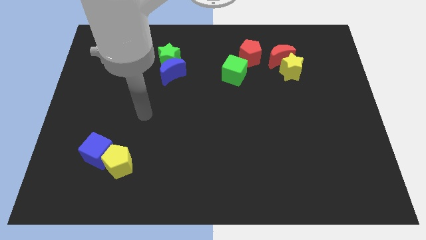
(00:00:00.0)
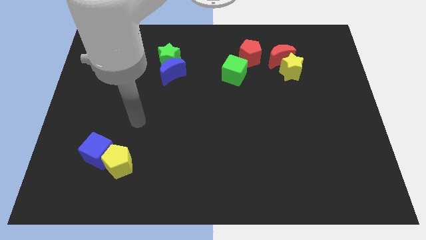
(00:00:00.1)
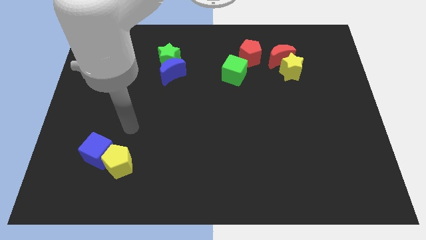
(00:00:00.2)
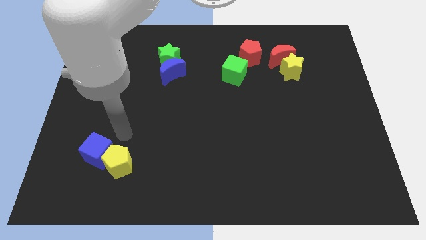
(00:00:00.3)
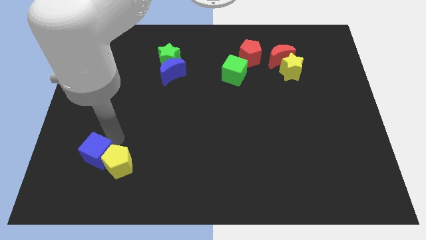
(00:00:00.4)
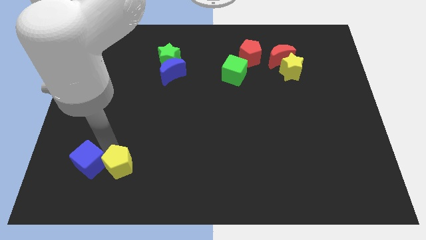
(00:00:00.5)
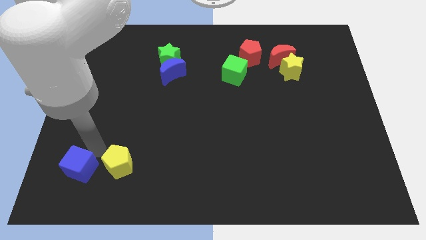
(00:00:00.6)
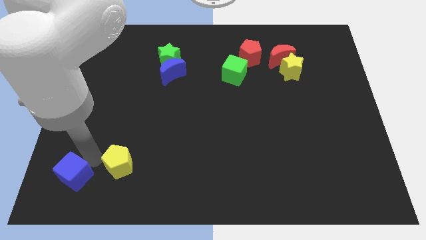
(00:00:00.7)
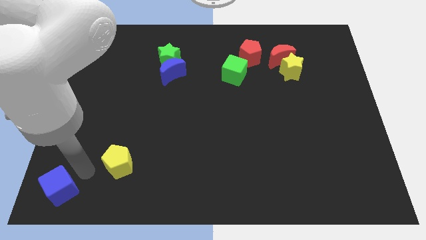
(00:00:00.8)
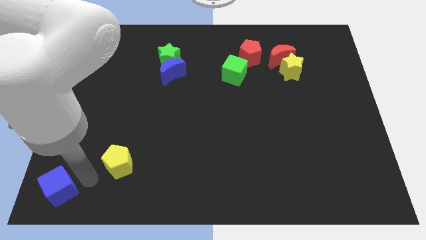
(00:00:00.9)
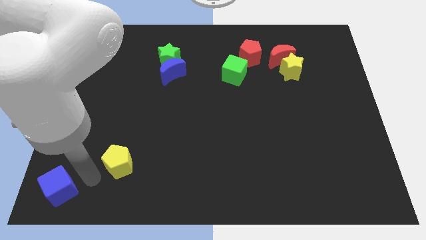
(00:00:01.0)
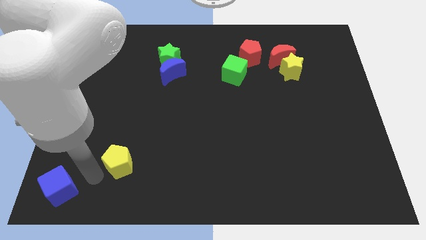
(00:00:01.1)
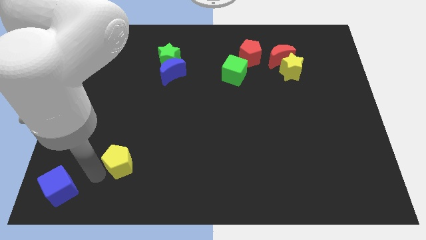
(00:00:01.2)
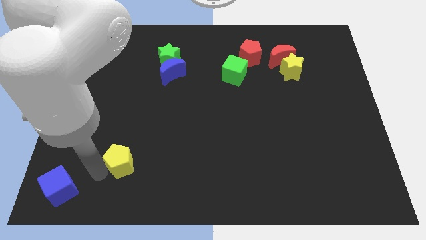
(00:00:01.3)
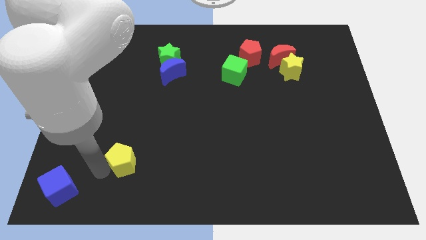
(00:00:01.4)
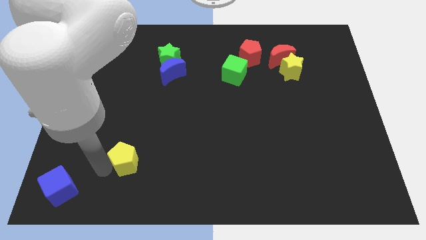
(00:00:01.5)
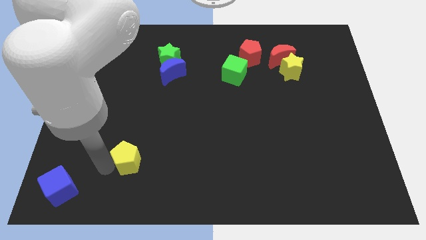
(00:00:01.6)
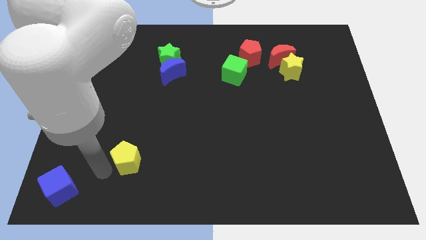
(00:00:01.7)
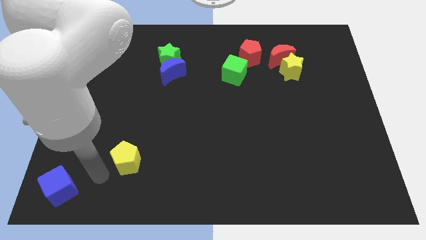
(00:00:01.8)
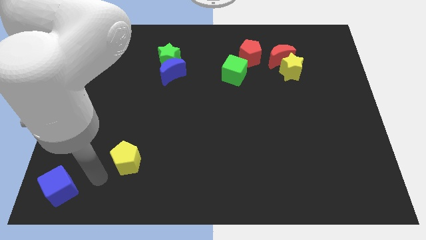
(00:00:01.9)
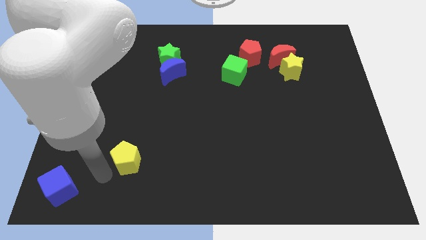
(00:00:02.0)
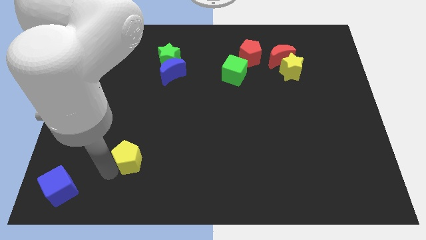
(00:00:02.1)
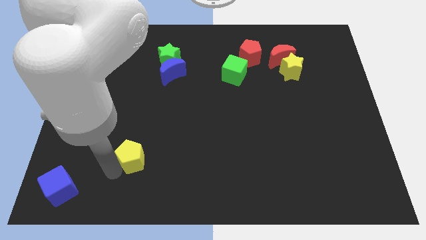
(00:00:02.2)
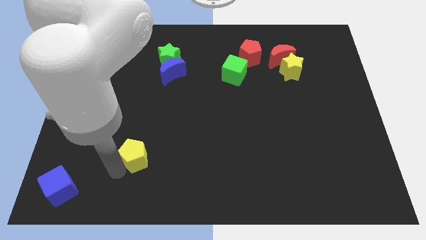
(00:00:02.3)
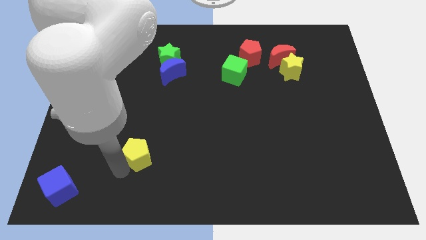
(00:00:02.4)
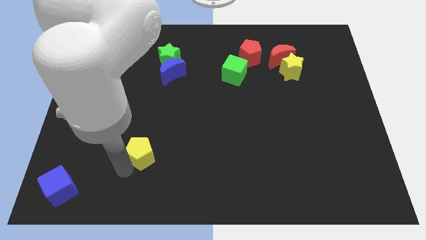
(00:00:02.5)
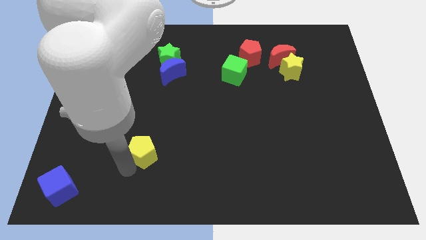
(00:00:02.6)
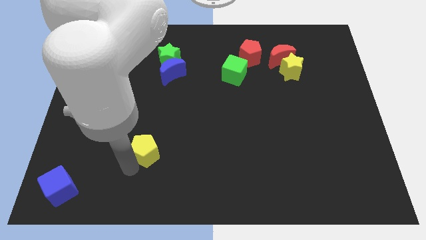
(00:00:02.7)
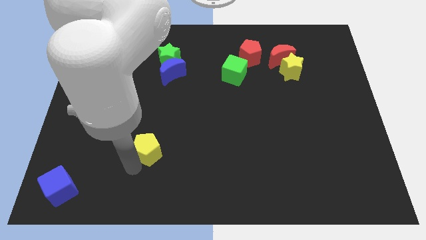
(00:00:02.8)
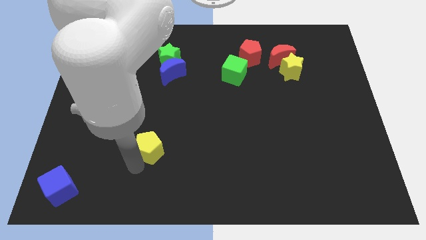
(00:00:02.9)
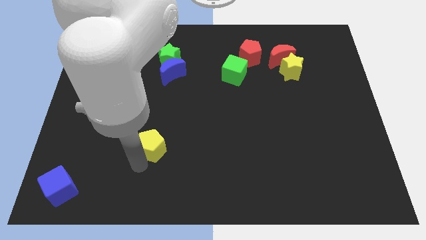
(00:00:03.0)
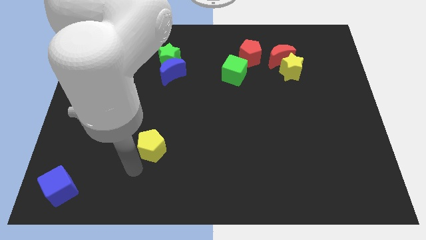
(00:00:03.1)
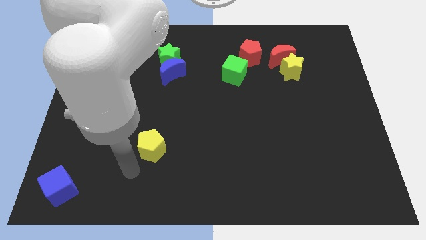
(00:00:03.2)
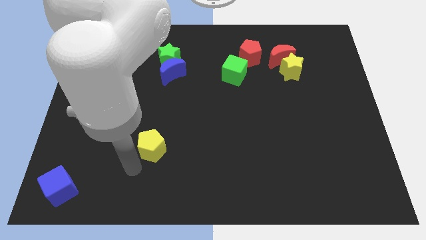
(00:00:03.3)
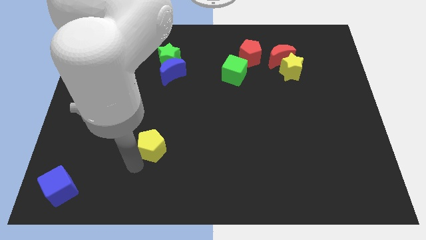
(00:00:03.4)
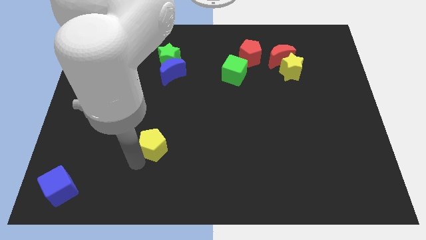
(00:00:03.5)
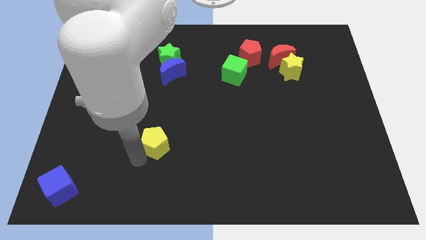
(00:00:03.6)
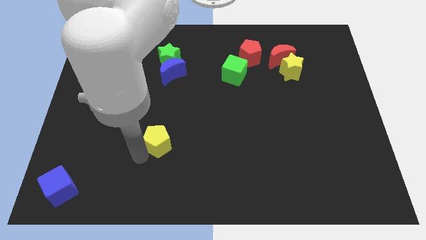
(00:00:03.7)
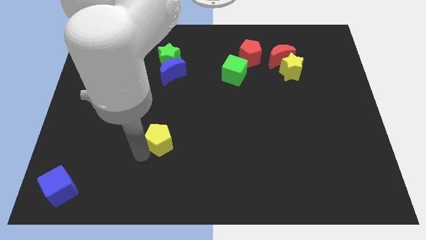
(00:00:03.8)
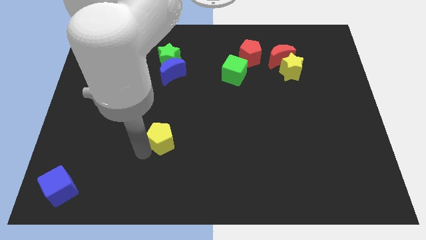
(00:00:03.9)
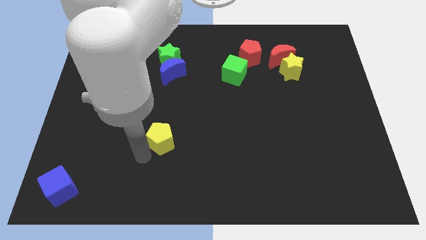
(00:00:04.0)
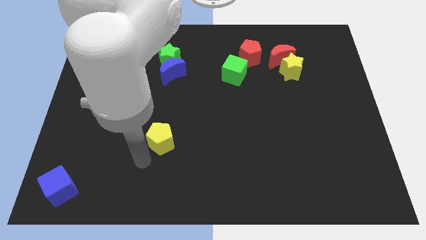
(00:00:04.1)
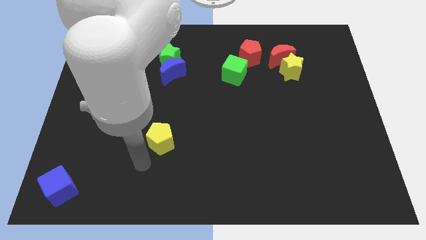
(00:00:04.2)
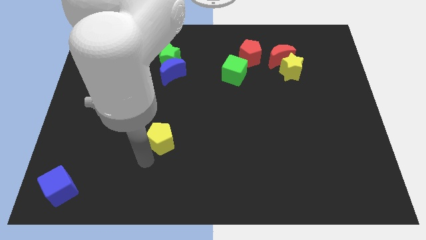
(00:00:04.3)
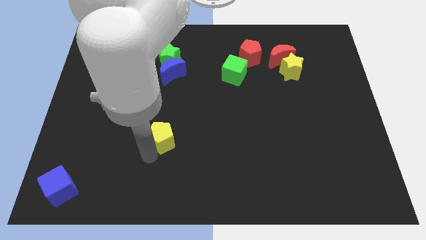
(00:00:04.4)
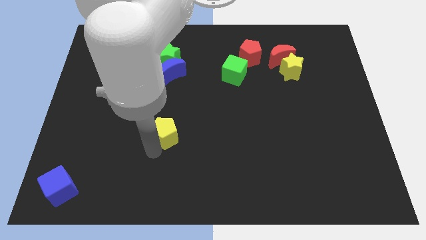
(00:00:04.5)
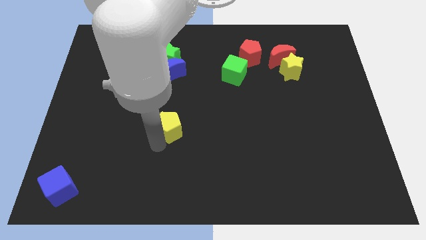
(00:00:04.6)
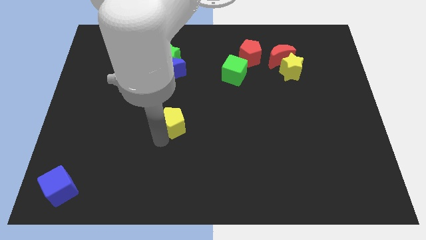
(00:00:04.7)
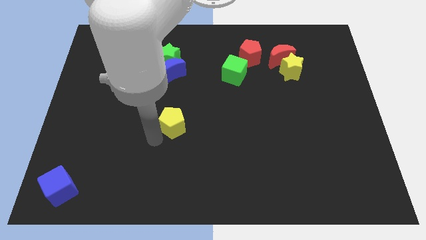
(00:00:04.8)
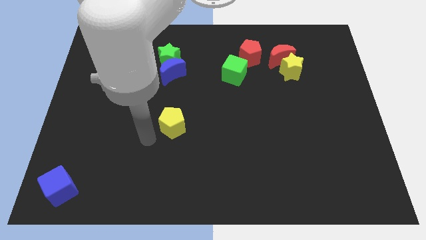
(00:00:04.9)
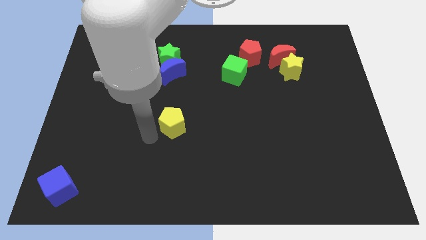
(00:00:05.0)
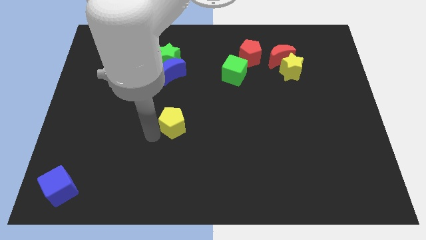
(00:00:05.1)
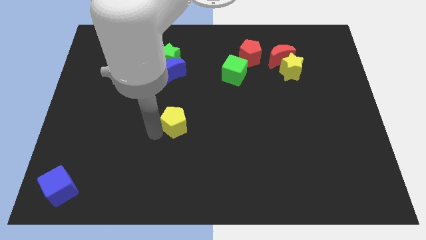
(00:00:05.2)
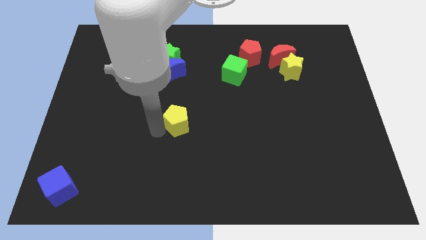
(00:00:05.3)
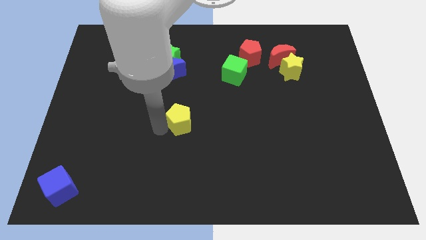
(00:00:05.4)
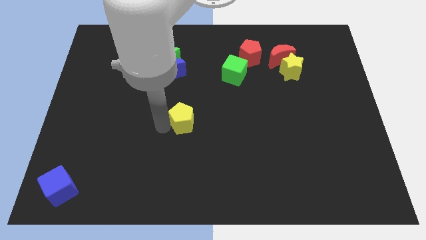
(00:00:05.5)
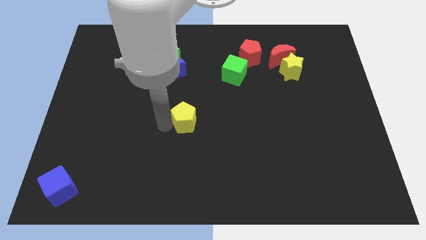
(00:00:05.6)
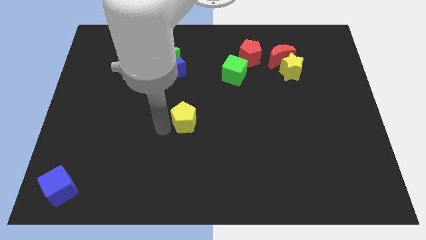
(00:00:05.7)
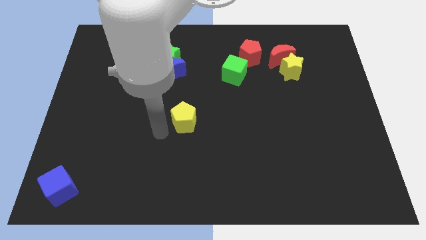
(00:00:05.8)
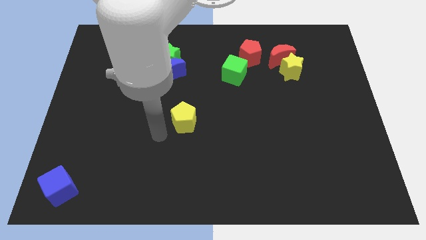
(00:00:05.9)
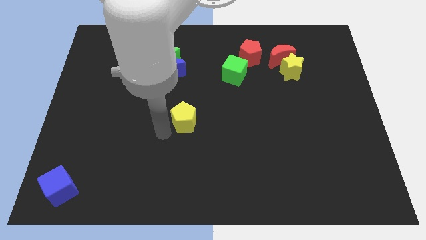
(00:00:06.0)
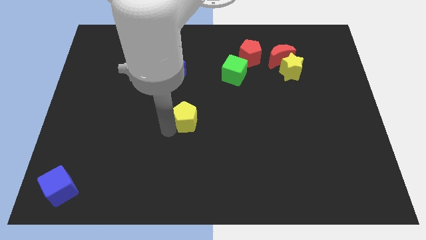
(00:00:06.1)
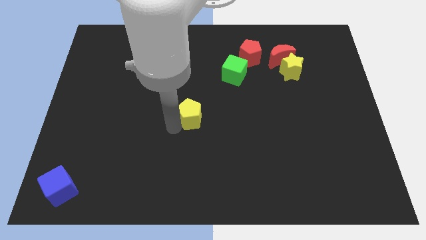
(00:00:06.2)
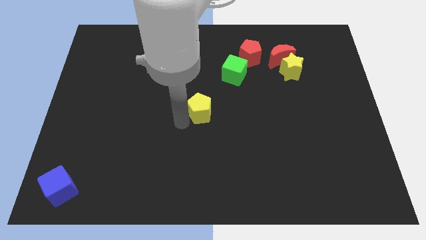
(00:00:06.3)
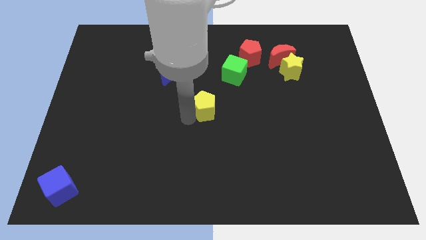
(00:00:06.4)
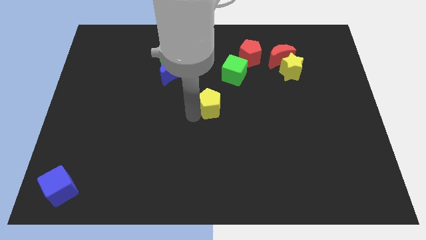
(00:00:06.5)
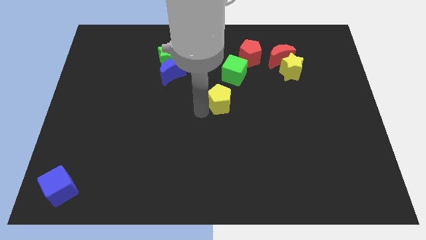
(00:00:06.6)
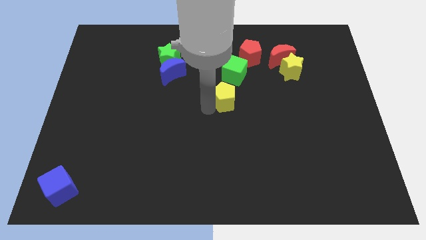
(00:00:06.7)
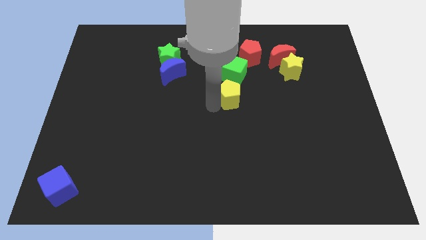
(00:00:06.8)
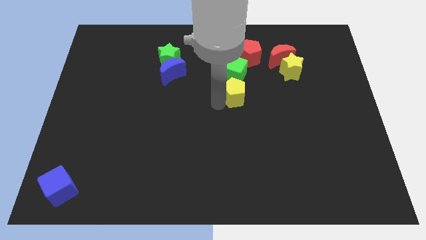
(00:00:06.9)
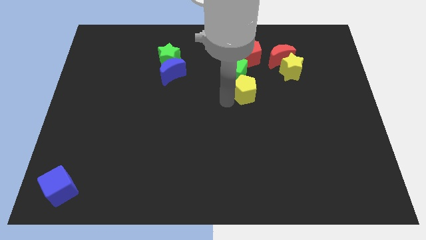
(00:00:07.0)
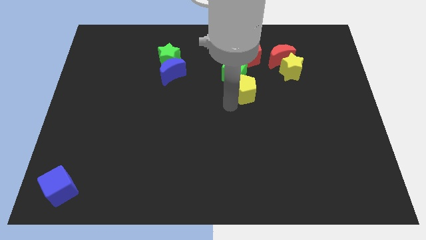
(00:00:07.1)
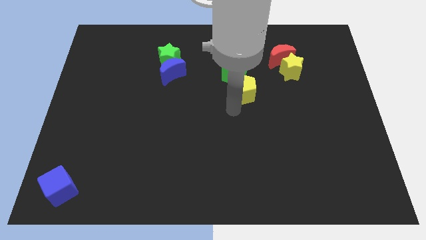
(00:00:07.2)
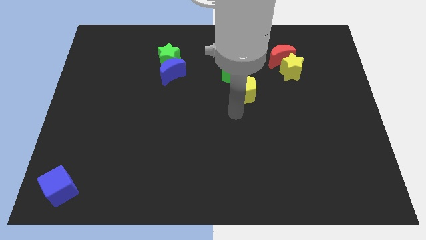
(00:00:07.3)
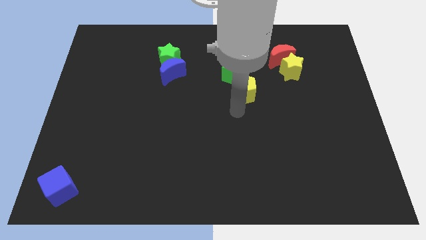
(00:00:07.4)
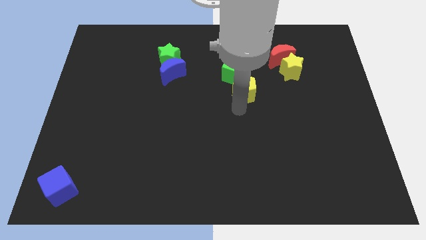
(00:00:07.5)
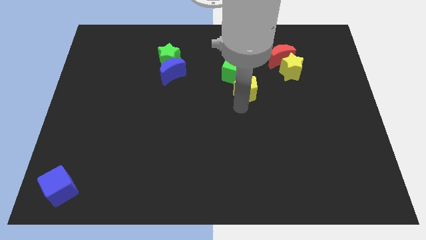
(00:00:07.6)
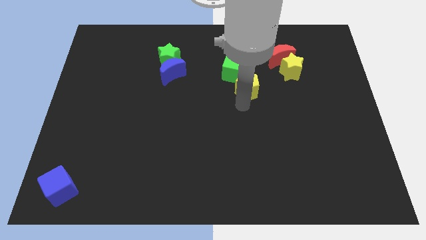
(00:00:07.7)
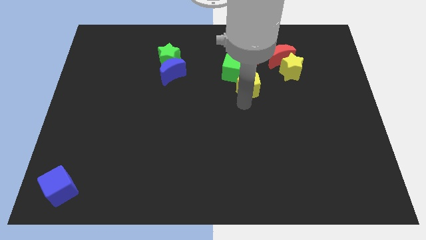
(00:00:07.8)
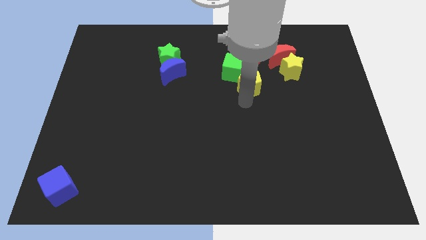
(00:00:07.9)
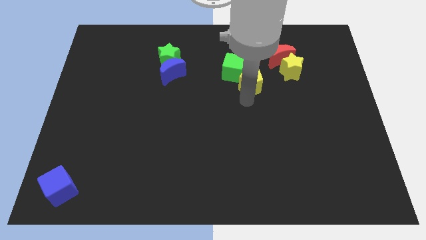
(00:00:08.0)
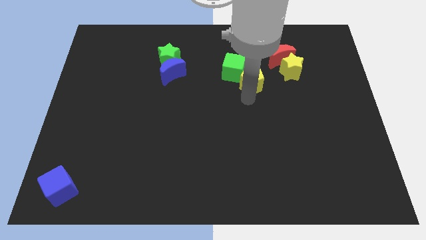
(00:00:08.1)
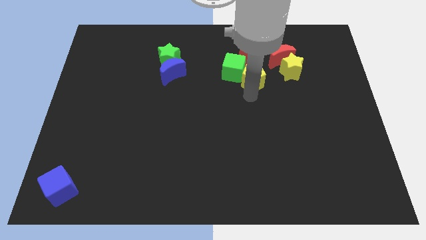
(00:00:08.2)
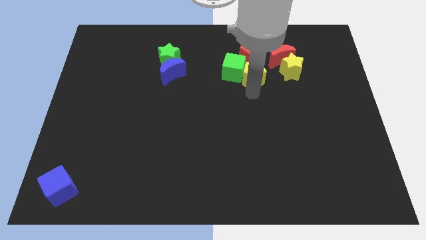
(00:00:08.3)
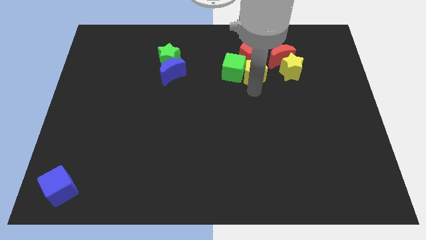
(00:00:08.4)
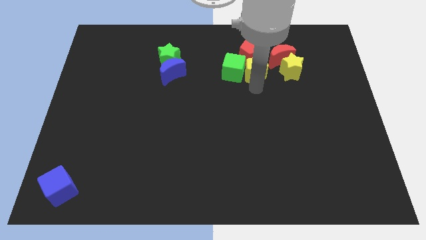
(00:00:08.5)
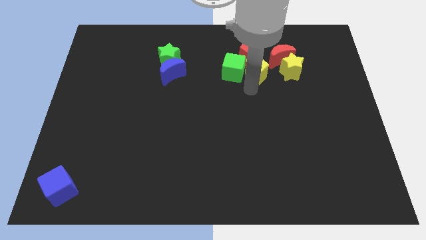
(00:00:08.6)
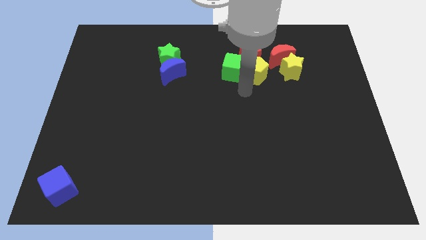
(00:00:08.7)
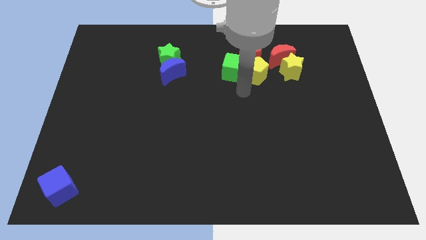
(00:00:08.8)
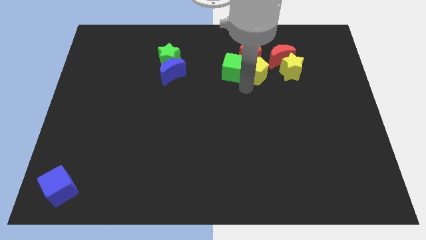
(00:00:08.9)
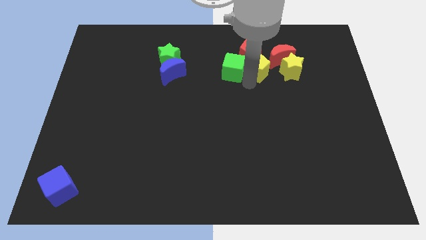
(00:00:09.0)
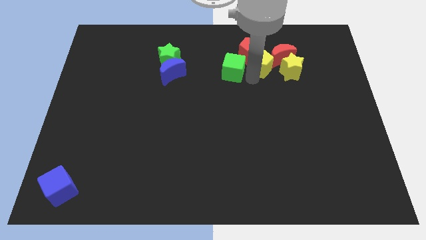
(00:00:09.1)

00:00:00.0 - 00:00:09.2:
move the yellow pentagon to the top left side of the yellow star
